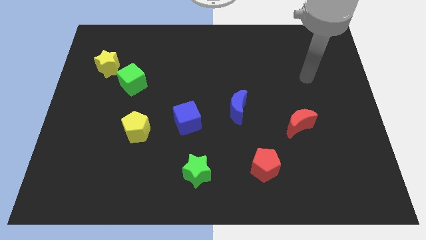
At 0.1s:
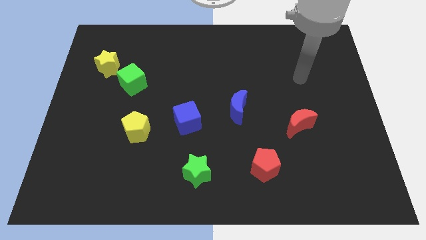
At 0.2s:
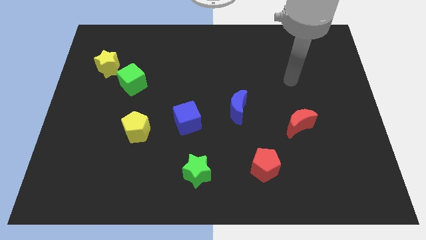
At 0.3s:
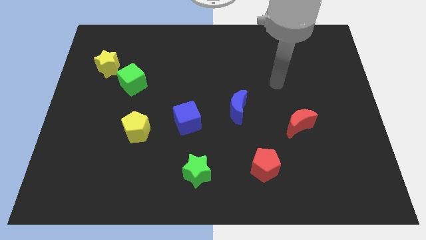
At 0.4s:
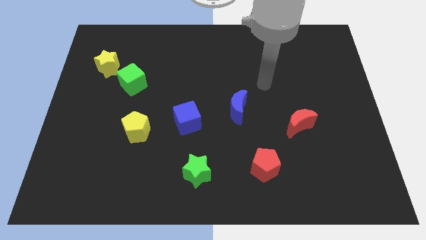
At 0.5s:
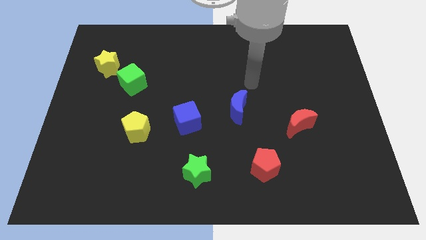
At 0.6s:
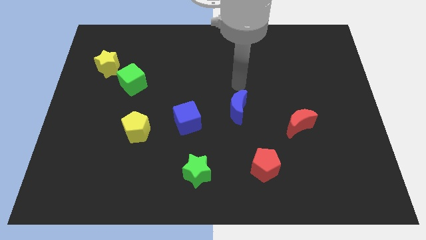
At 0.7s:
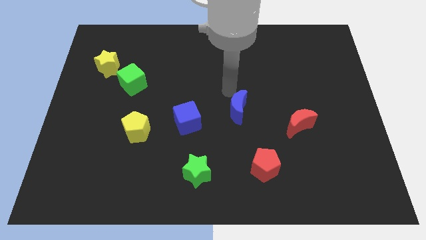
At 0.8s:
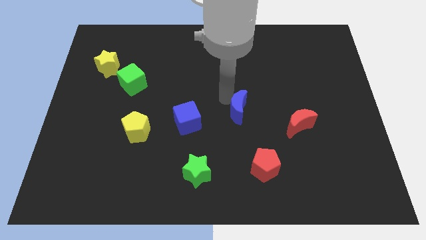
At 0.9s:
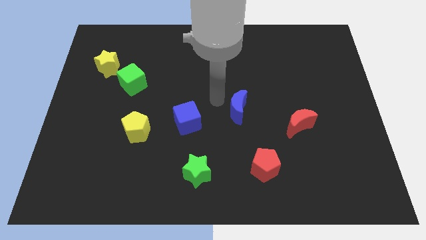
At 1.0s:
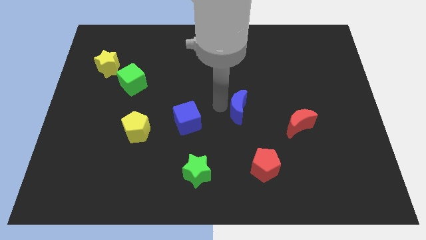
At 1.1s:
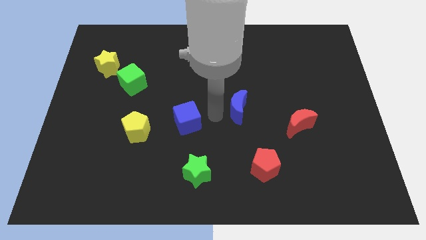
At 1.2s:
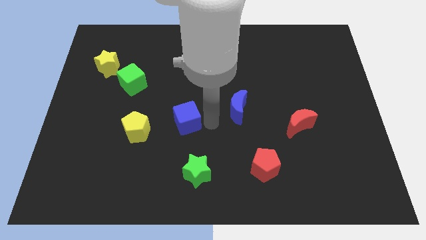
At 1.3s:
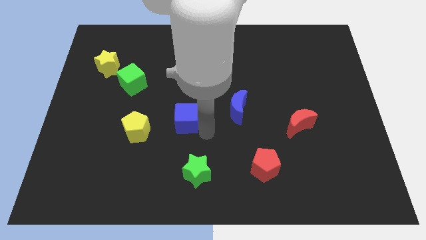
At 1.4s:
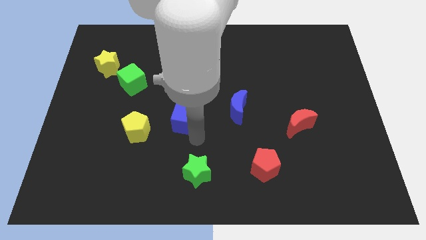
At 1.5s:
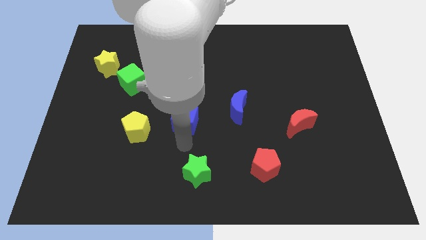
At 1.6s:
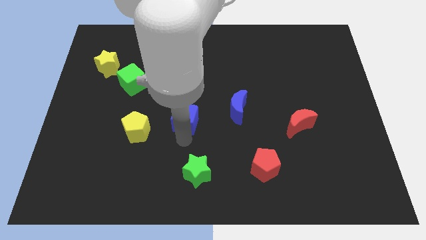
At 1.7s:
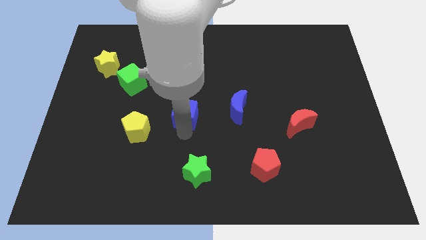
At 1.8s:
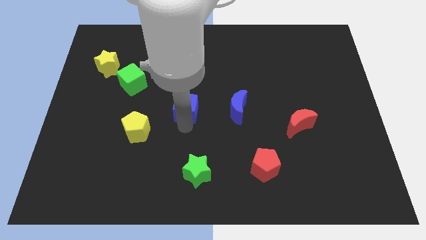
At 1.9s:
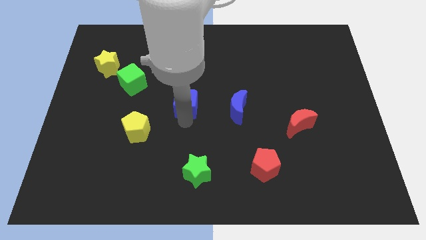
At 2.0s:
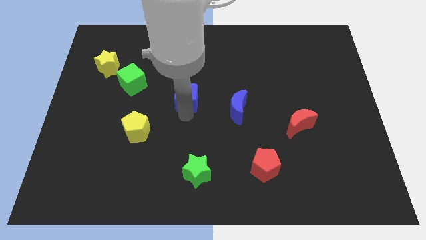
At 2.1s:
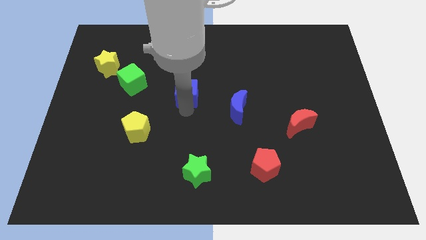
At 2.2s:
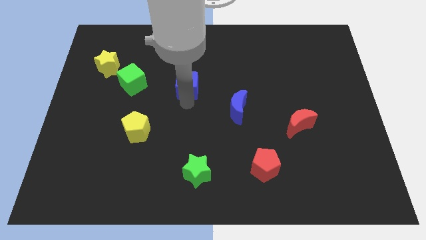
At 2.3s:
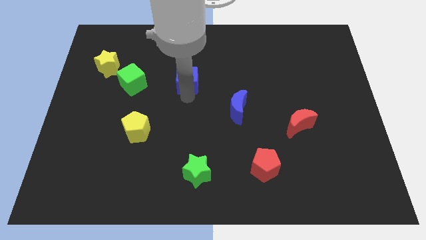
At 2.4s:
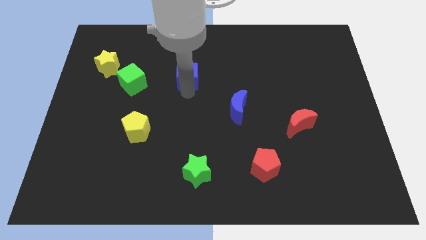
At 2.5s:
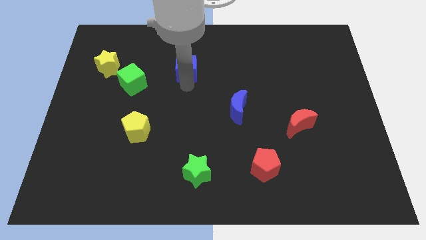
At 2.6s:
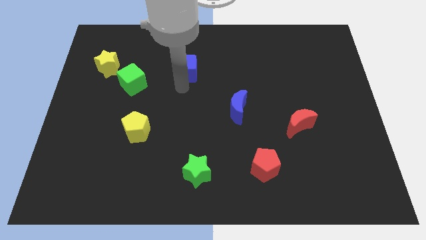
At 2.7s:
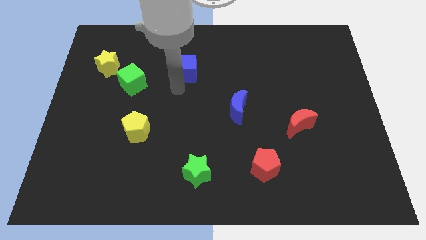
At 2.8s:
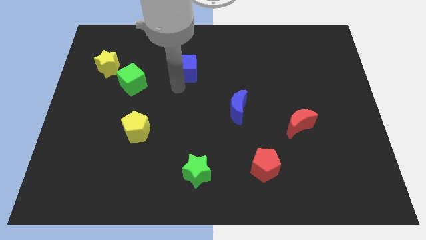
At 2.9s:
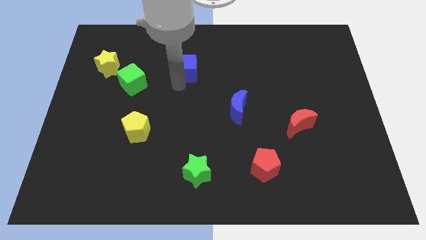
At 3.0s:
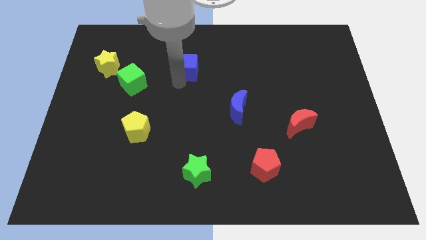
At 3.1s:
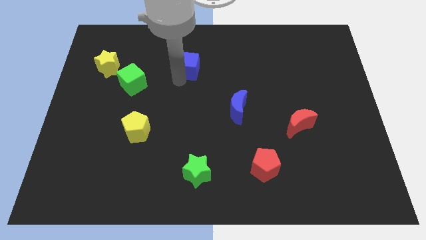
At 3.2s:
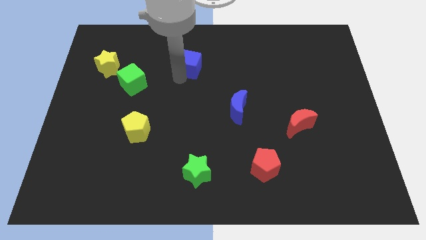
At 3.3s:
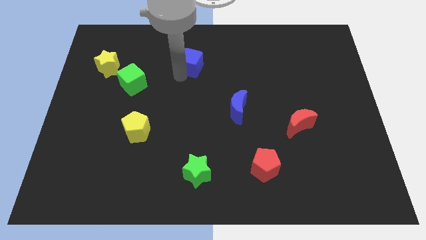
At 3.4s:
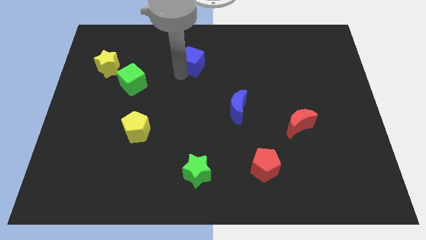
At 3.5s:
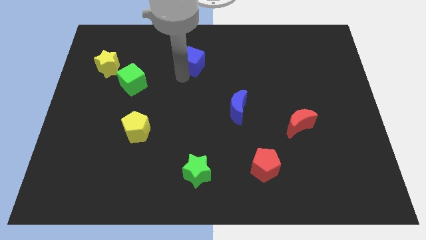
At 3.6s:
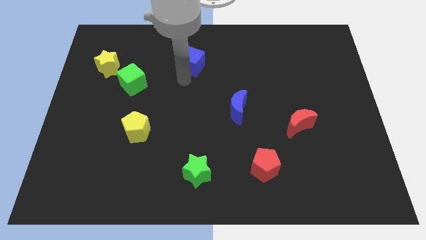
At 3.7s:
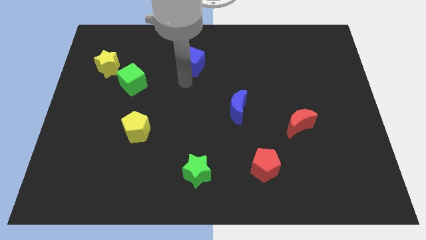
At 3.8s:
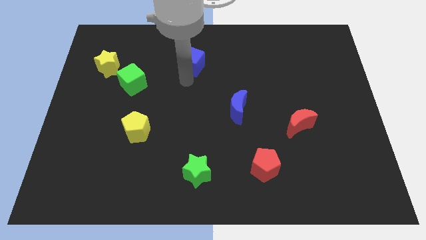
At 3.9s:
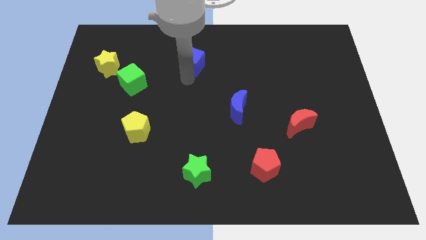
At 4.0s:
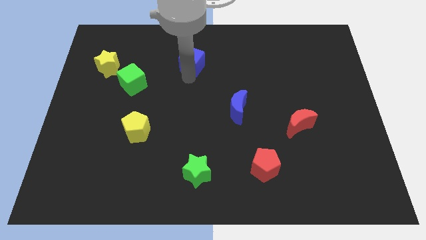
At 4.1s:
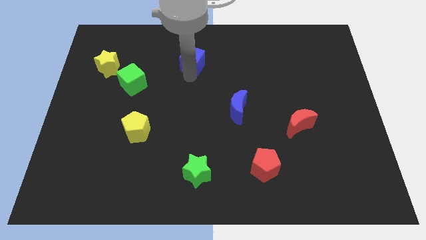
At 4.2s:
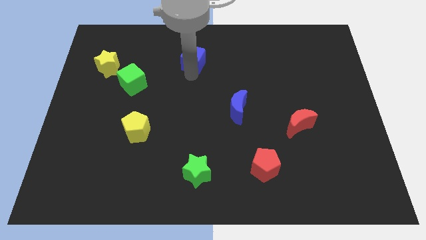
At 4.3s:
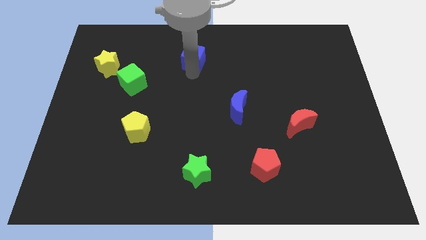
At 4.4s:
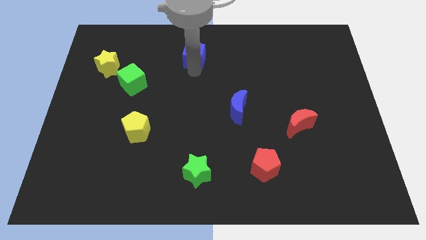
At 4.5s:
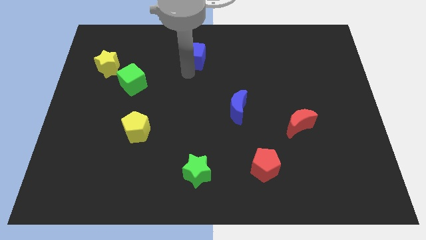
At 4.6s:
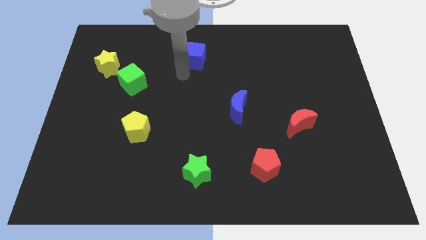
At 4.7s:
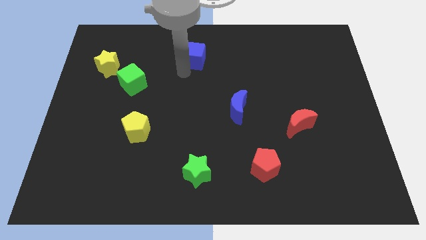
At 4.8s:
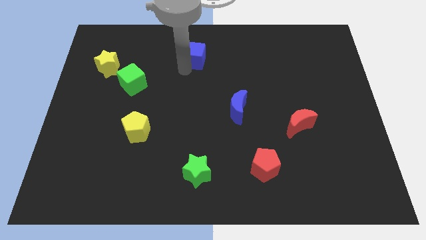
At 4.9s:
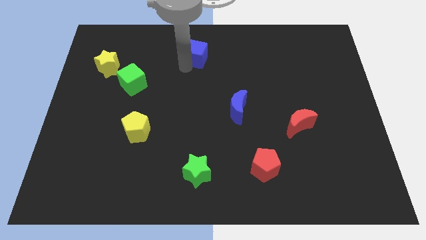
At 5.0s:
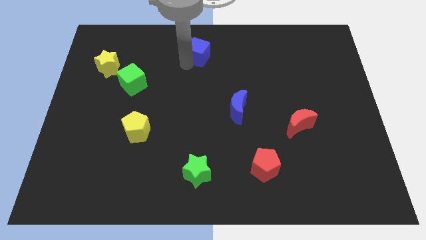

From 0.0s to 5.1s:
push the blue cube to the top side

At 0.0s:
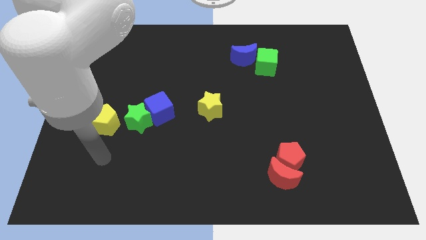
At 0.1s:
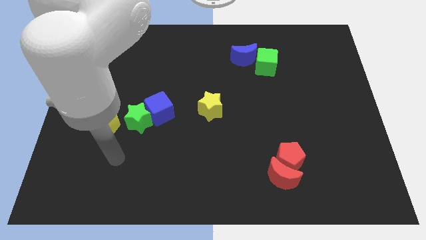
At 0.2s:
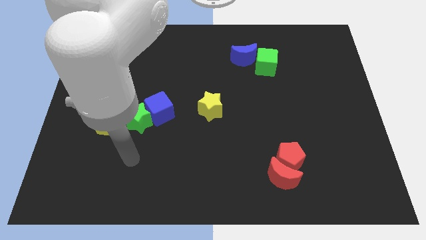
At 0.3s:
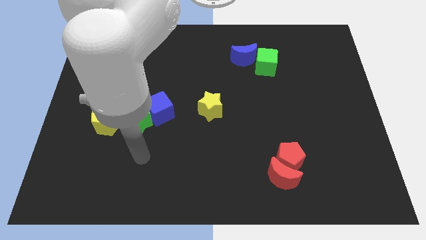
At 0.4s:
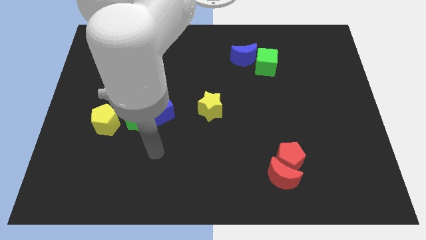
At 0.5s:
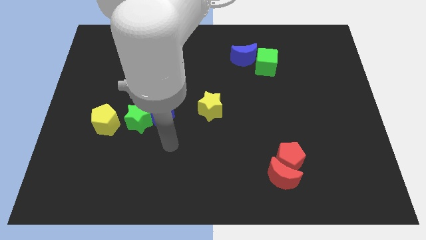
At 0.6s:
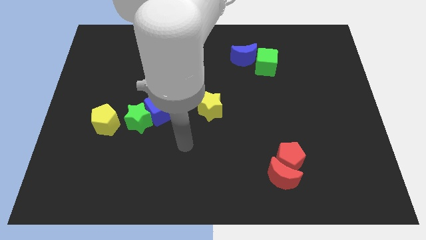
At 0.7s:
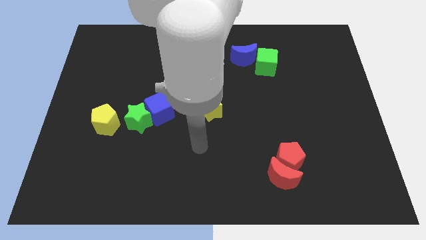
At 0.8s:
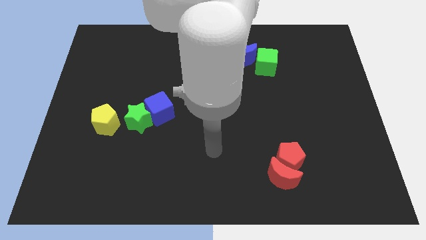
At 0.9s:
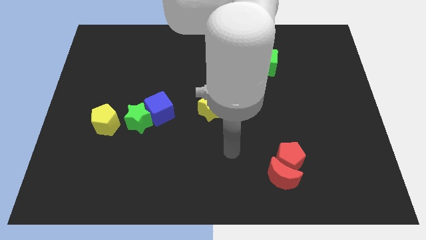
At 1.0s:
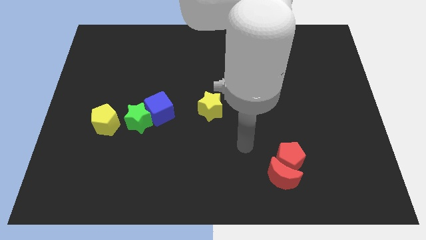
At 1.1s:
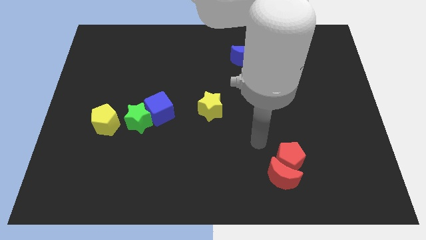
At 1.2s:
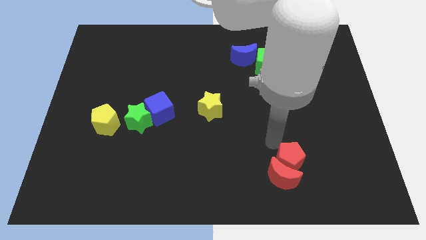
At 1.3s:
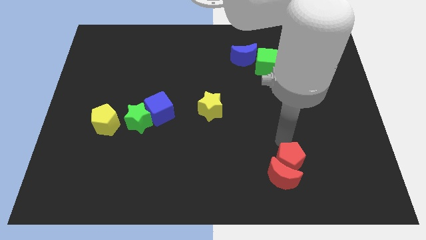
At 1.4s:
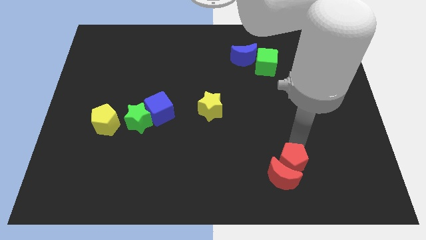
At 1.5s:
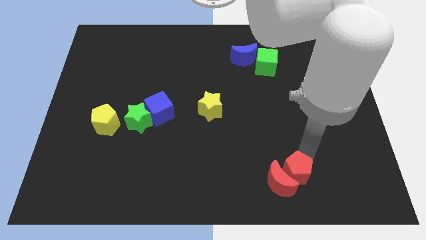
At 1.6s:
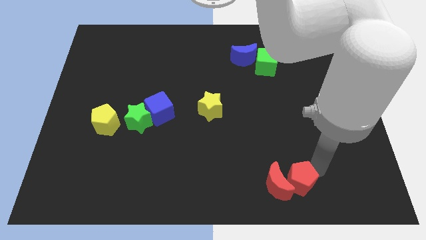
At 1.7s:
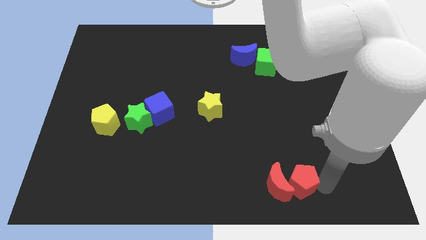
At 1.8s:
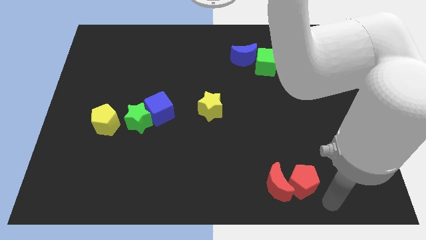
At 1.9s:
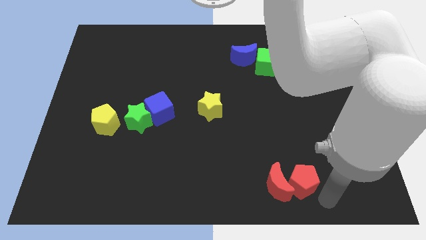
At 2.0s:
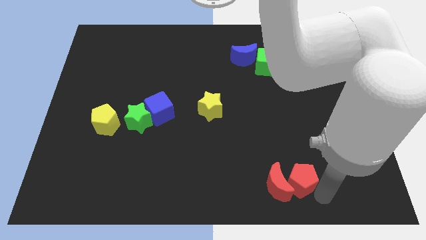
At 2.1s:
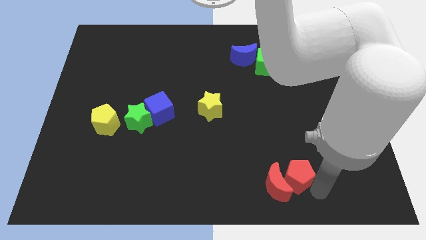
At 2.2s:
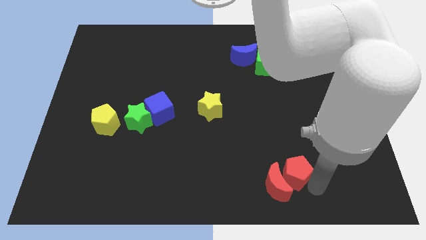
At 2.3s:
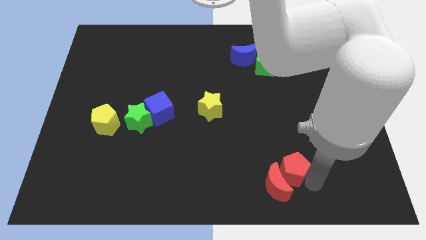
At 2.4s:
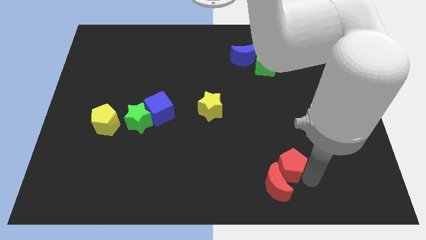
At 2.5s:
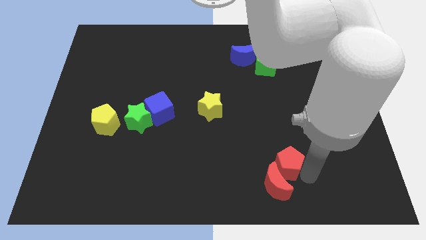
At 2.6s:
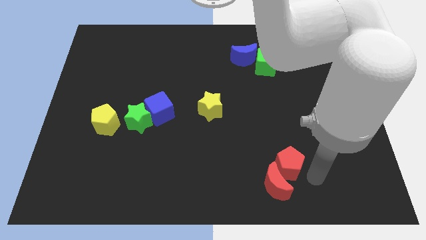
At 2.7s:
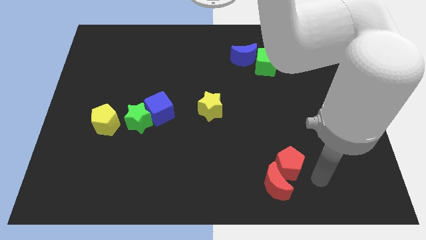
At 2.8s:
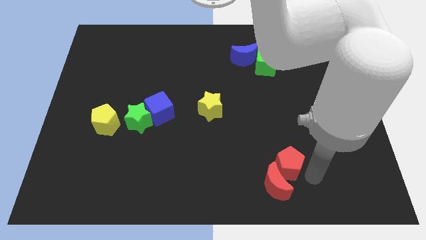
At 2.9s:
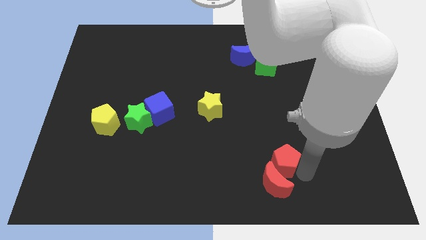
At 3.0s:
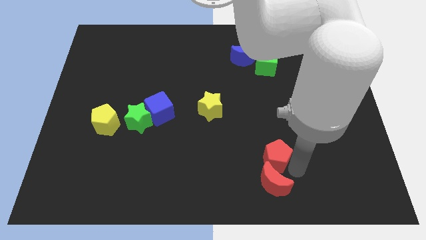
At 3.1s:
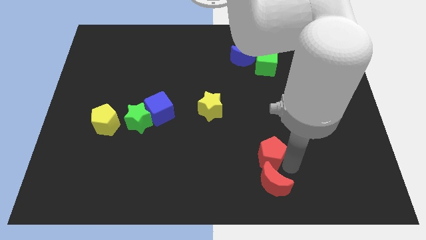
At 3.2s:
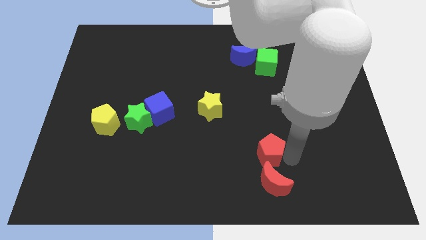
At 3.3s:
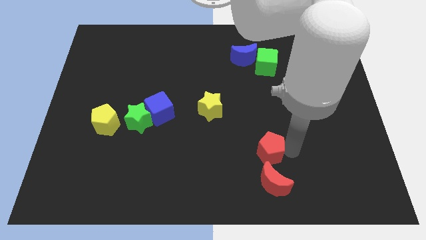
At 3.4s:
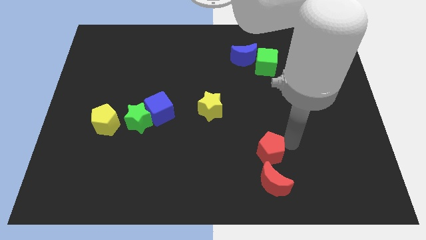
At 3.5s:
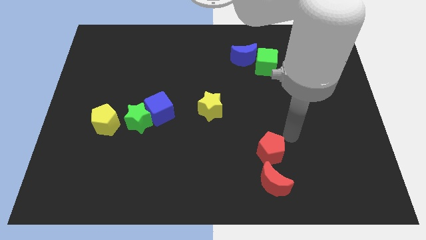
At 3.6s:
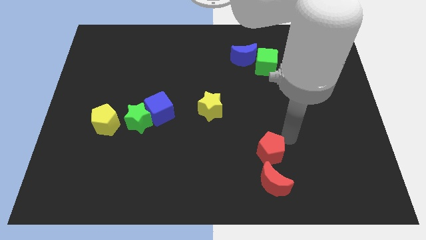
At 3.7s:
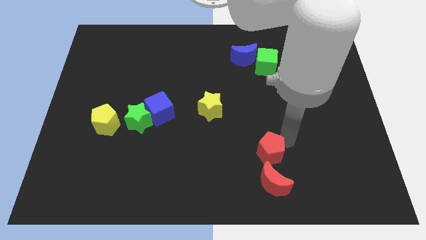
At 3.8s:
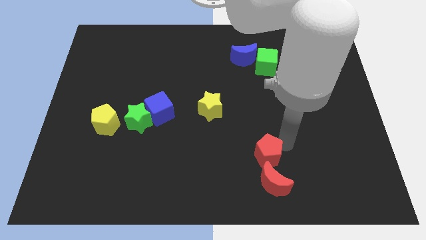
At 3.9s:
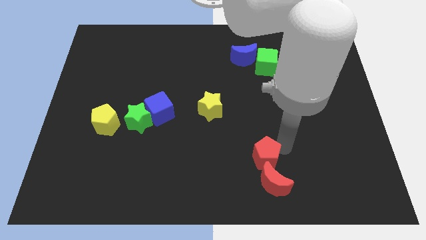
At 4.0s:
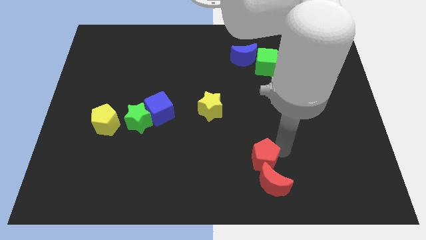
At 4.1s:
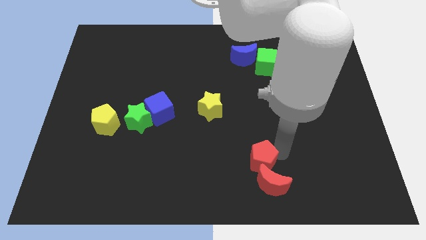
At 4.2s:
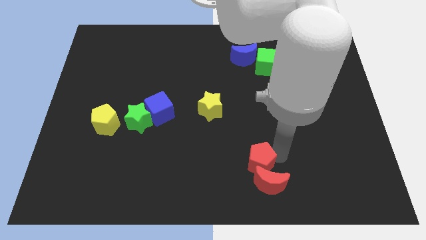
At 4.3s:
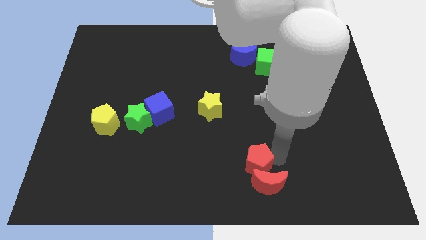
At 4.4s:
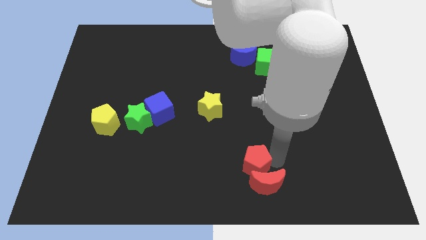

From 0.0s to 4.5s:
move the red pentagon to the bottom
